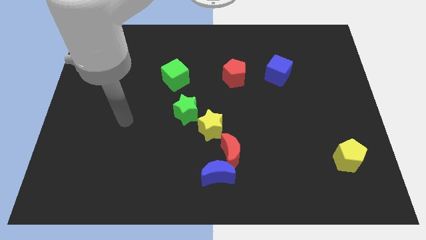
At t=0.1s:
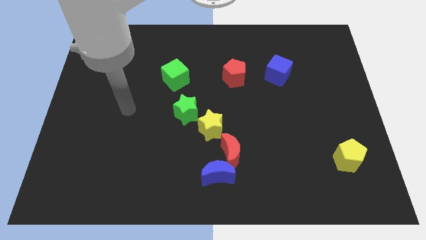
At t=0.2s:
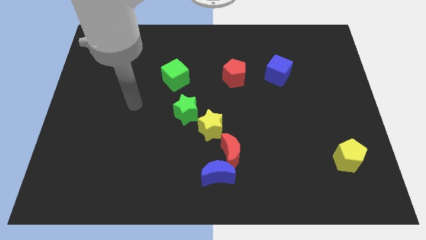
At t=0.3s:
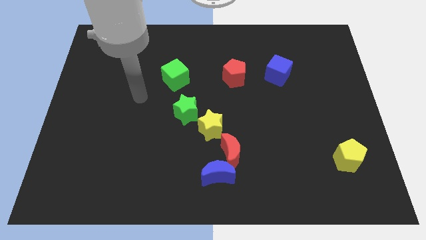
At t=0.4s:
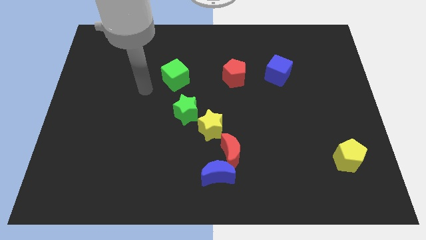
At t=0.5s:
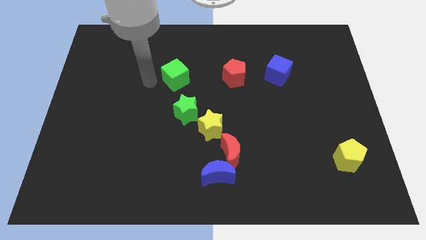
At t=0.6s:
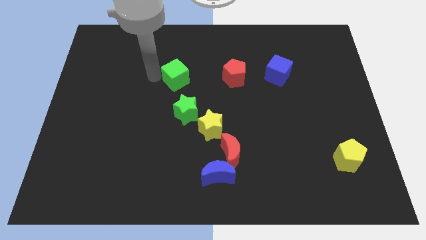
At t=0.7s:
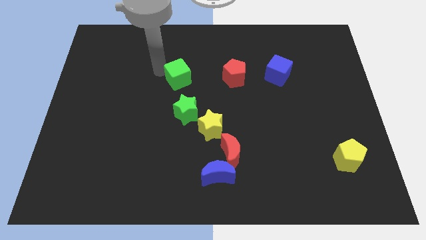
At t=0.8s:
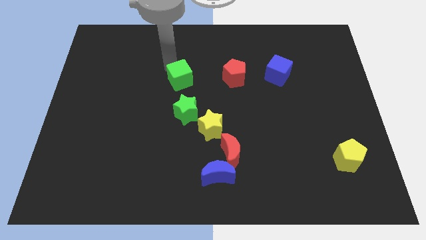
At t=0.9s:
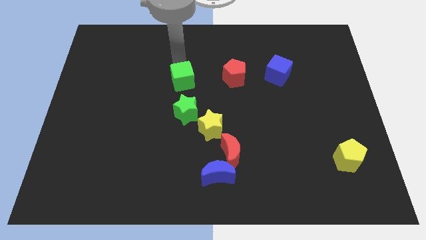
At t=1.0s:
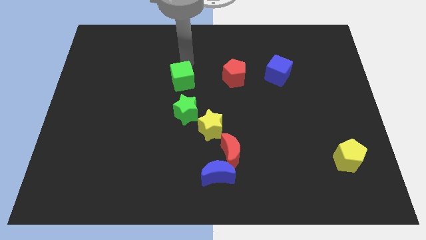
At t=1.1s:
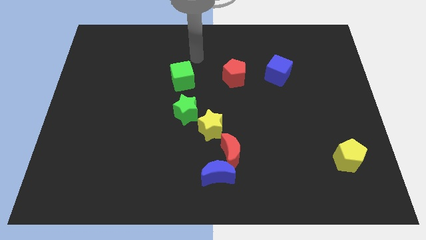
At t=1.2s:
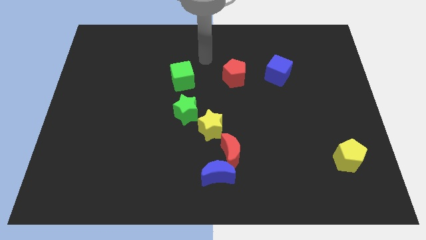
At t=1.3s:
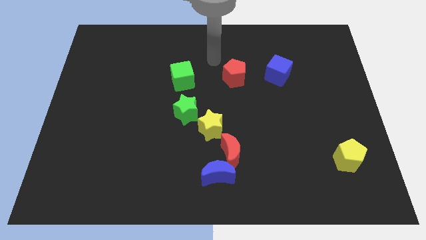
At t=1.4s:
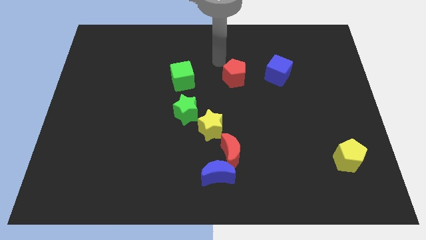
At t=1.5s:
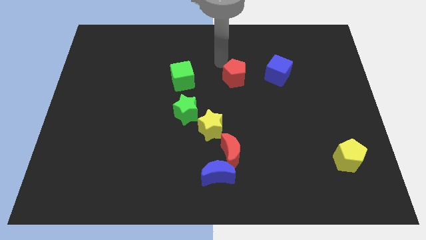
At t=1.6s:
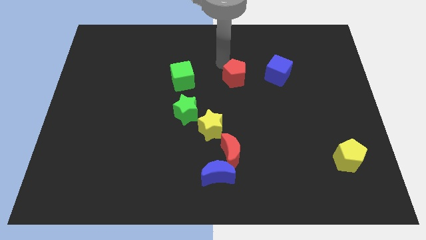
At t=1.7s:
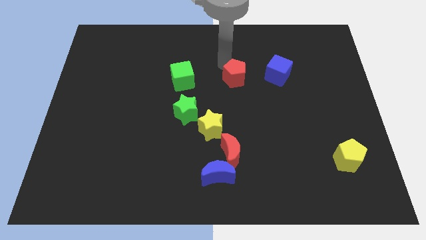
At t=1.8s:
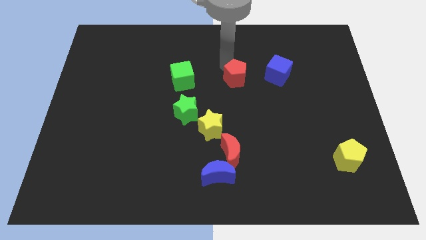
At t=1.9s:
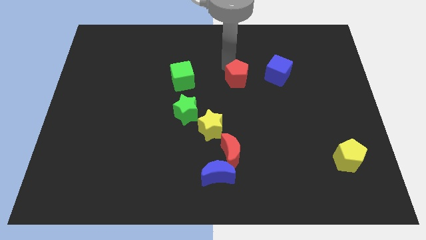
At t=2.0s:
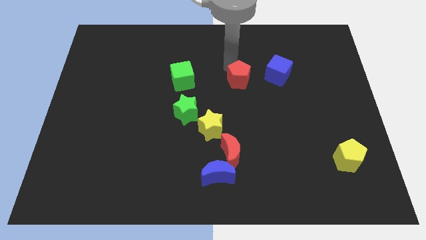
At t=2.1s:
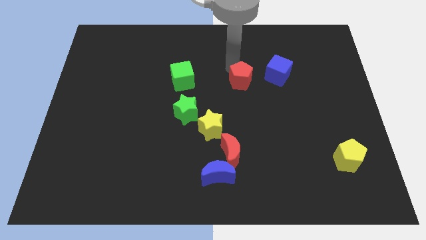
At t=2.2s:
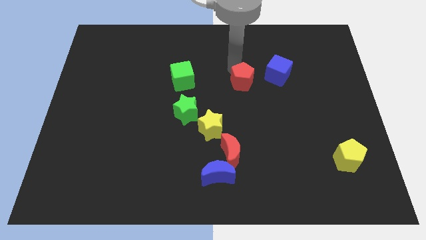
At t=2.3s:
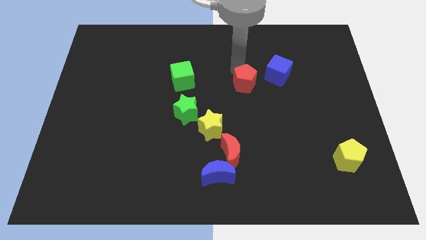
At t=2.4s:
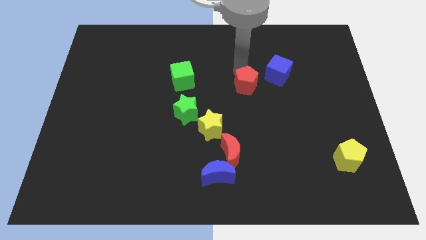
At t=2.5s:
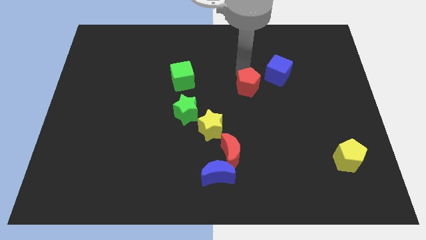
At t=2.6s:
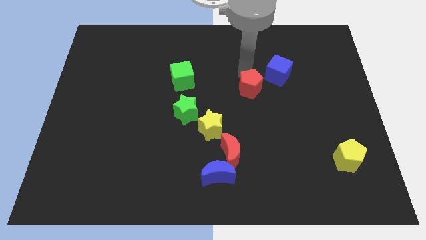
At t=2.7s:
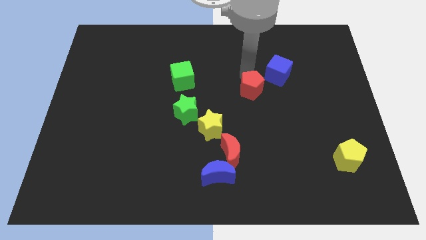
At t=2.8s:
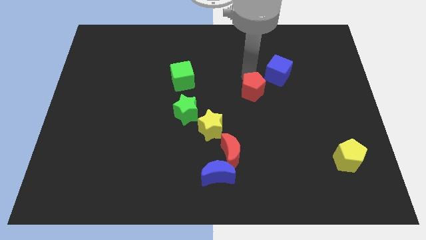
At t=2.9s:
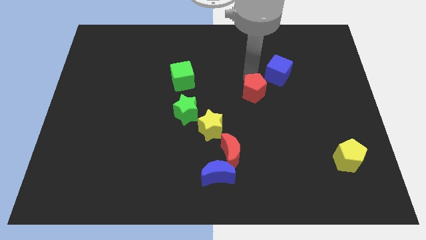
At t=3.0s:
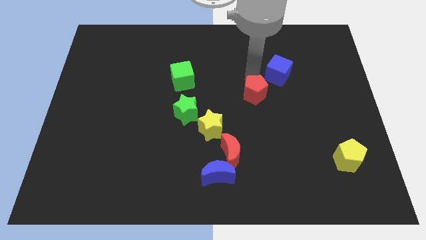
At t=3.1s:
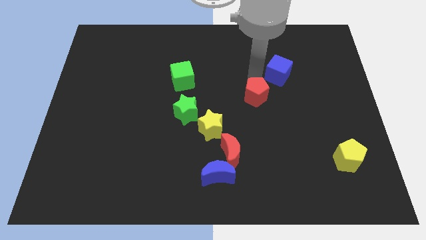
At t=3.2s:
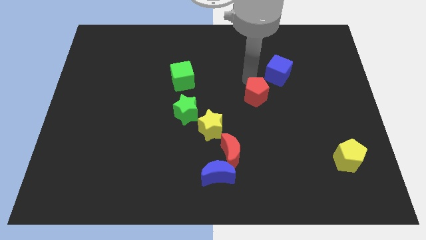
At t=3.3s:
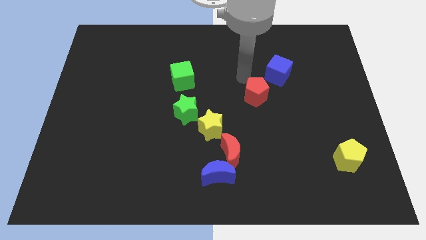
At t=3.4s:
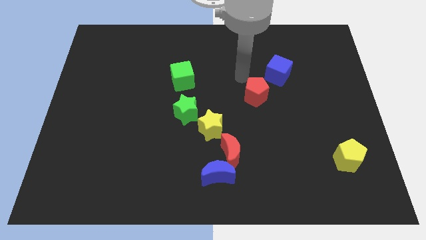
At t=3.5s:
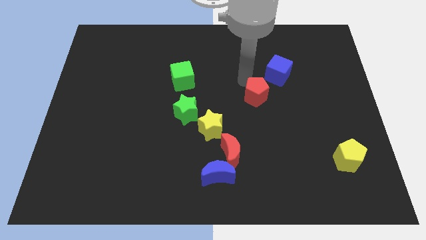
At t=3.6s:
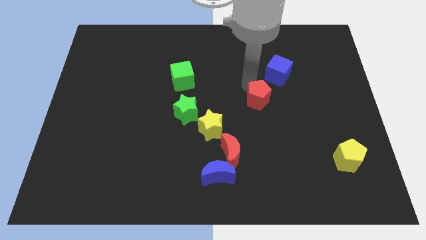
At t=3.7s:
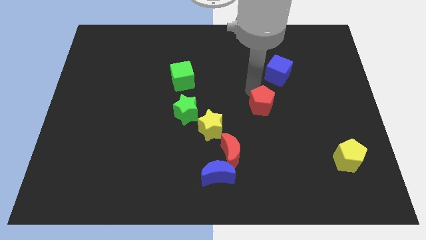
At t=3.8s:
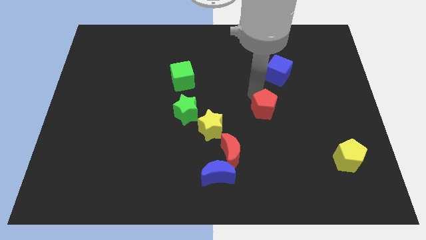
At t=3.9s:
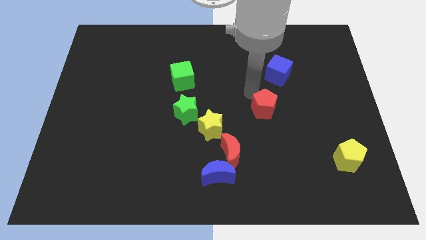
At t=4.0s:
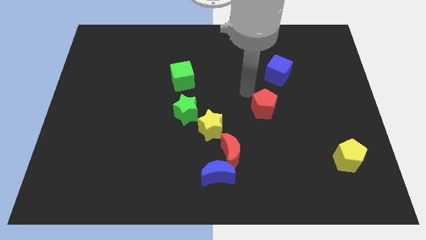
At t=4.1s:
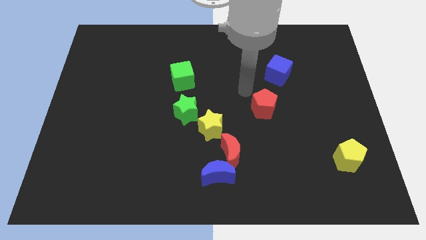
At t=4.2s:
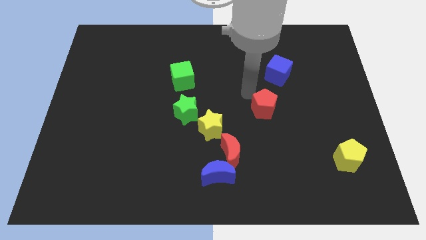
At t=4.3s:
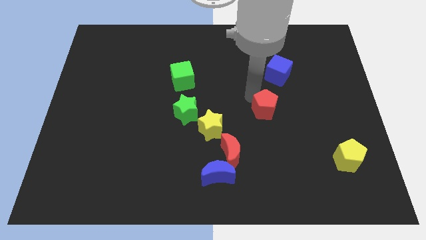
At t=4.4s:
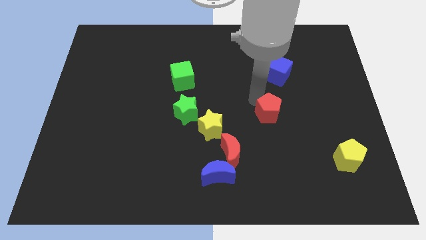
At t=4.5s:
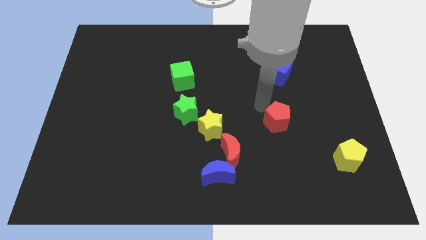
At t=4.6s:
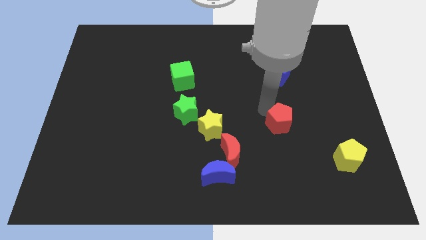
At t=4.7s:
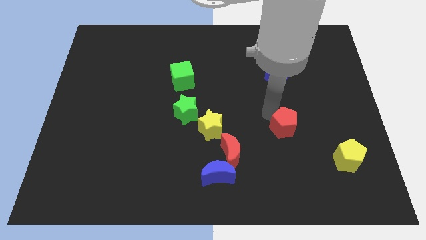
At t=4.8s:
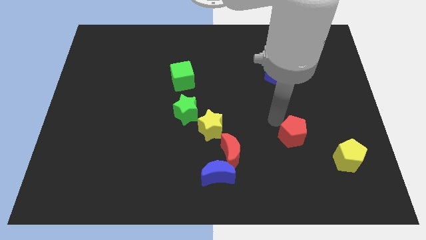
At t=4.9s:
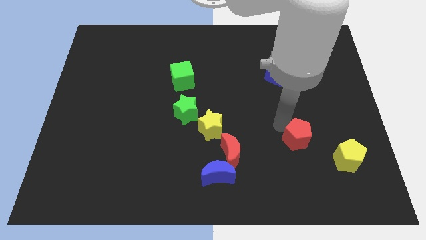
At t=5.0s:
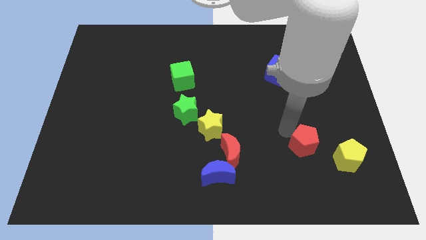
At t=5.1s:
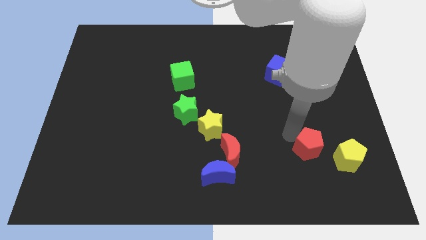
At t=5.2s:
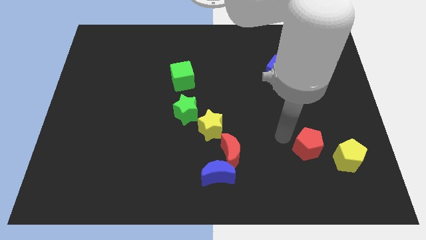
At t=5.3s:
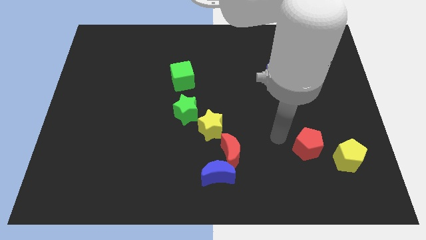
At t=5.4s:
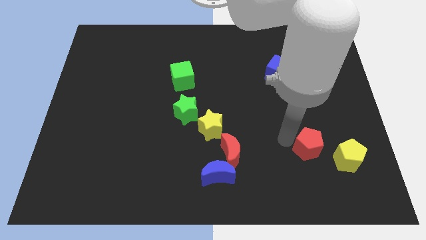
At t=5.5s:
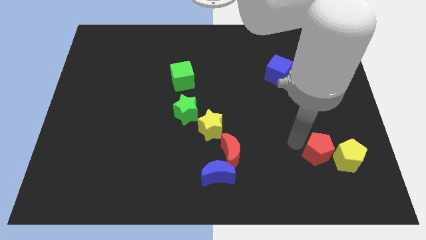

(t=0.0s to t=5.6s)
slide the red pentagon towards the yellow pentagon

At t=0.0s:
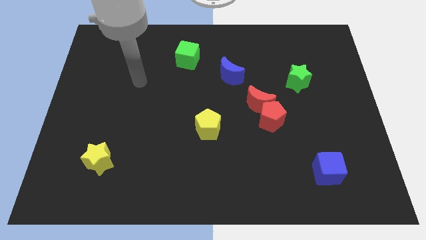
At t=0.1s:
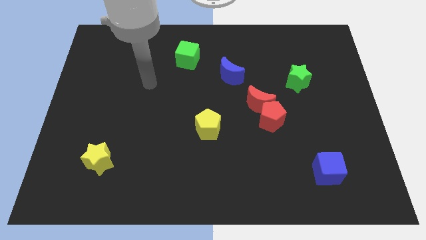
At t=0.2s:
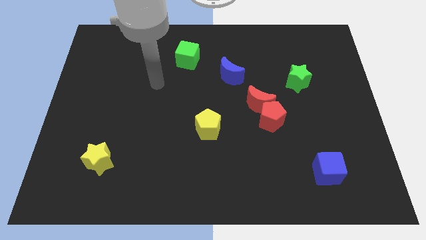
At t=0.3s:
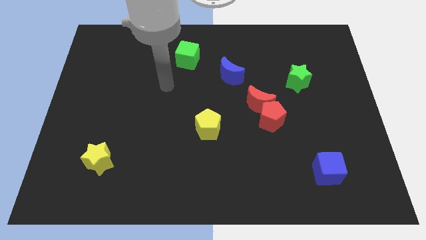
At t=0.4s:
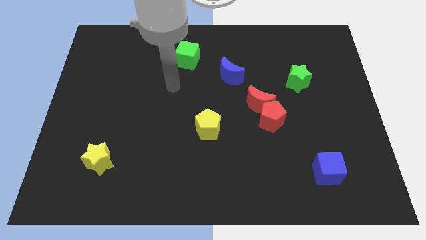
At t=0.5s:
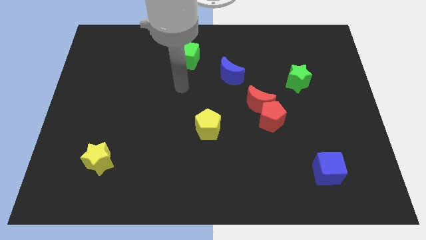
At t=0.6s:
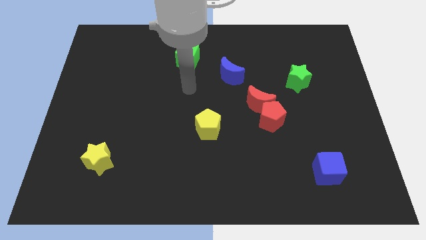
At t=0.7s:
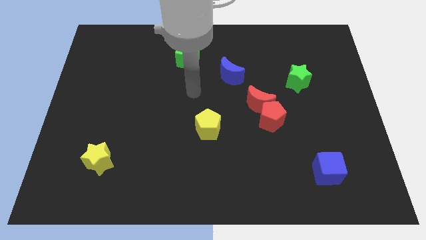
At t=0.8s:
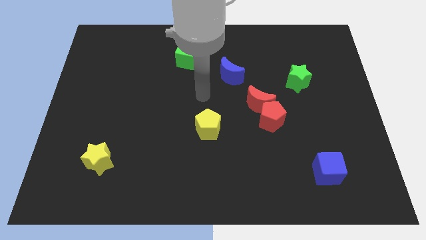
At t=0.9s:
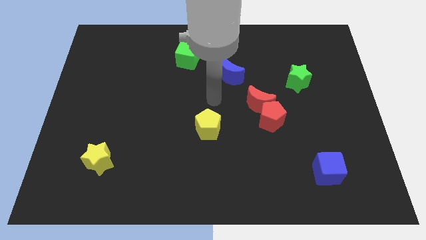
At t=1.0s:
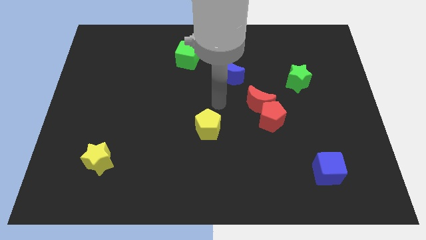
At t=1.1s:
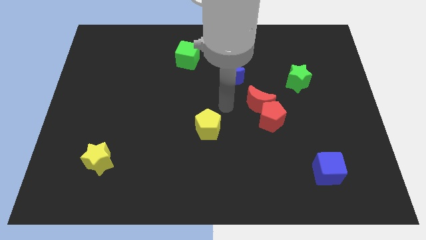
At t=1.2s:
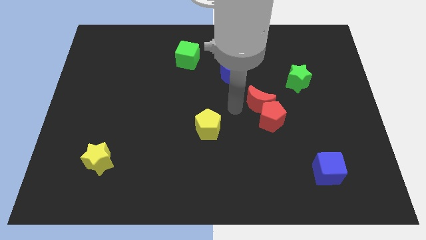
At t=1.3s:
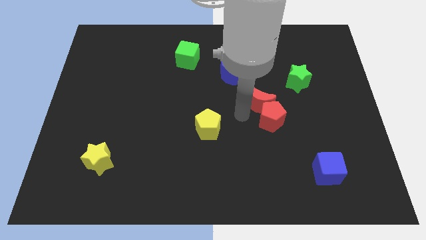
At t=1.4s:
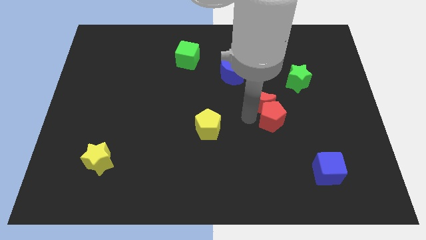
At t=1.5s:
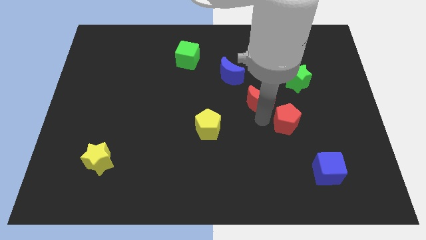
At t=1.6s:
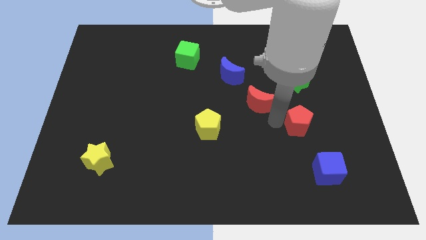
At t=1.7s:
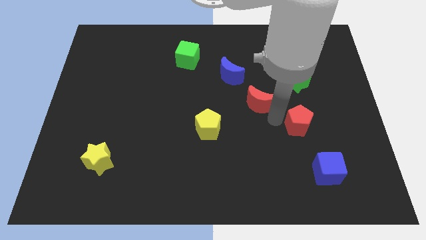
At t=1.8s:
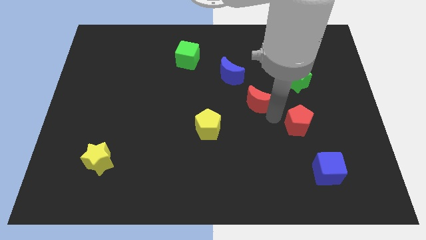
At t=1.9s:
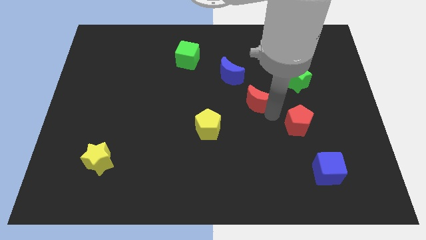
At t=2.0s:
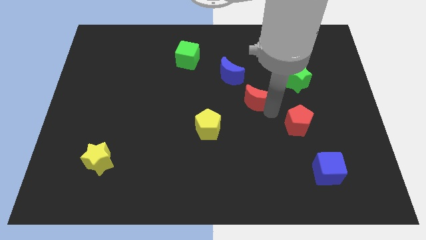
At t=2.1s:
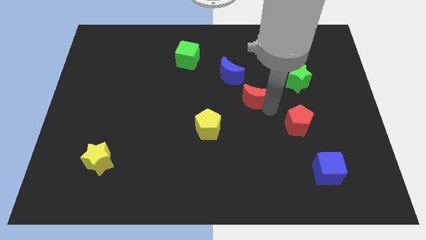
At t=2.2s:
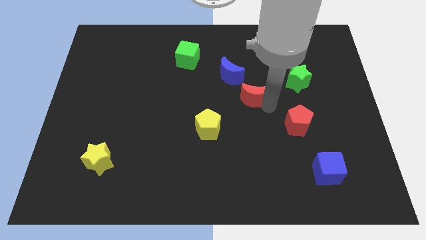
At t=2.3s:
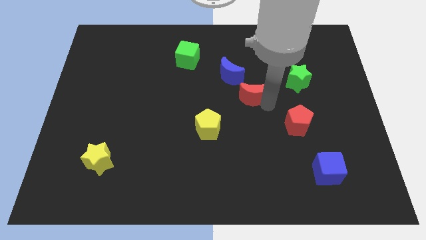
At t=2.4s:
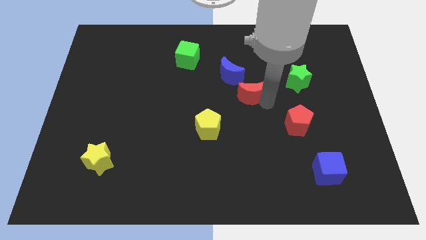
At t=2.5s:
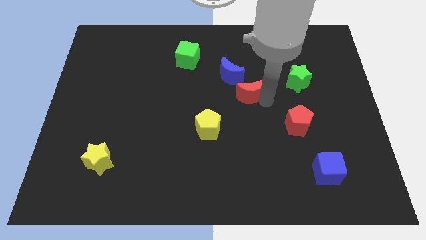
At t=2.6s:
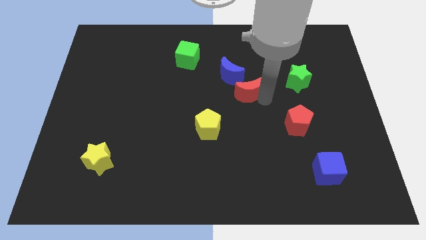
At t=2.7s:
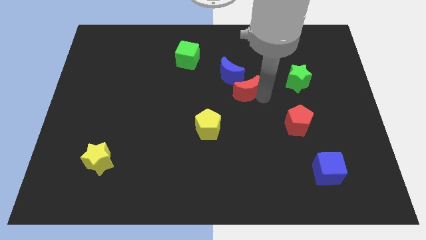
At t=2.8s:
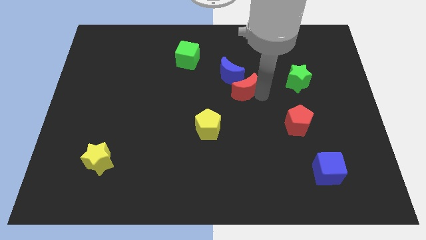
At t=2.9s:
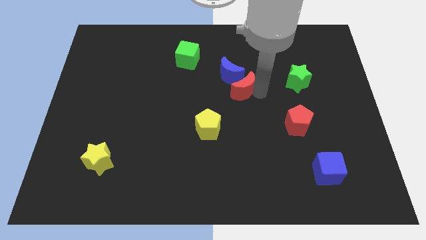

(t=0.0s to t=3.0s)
push the red moon close to the blue moon
